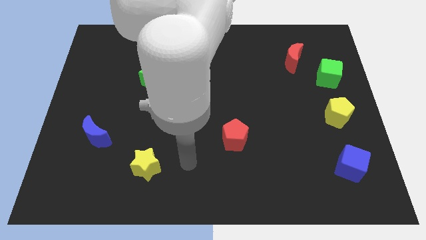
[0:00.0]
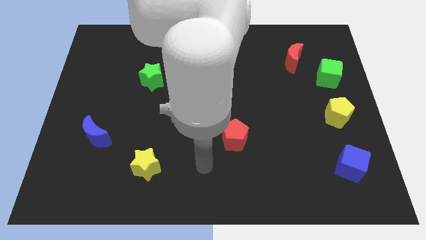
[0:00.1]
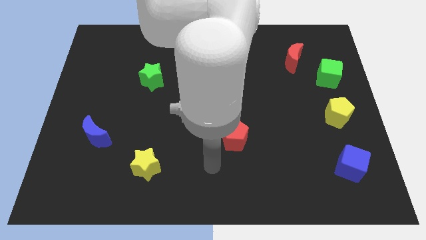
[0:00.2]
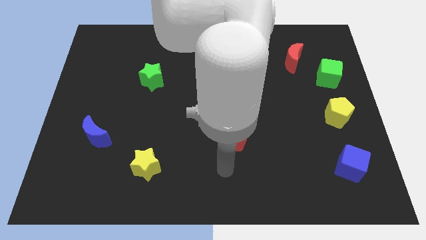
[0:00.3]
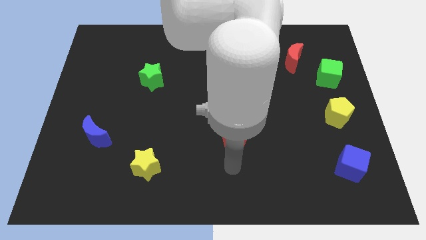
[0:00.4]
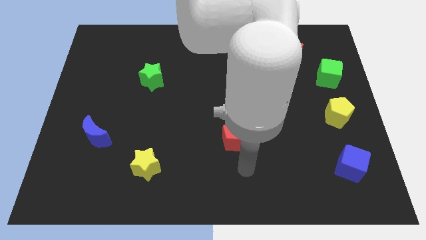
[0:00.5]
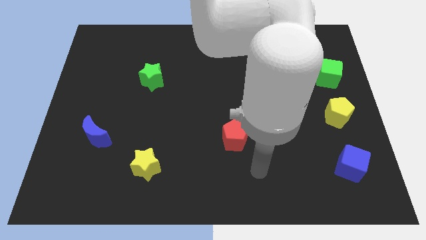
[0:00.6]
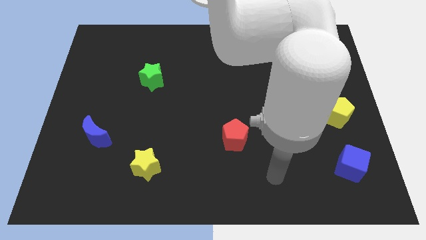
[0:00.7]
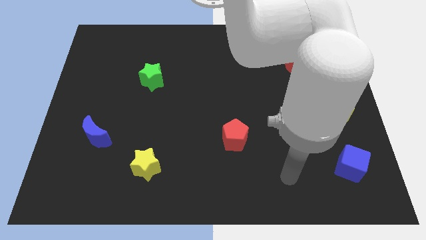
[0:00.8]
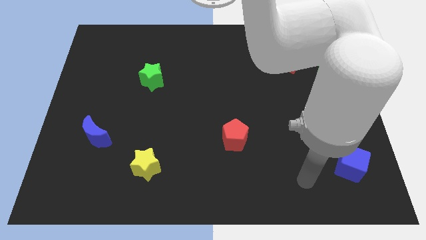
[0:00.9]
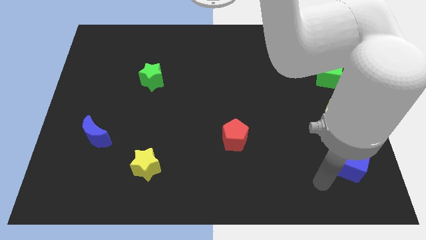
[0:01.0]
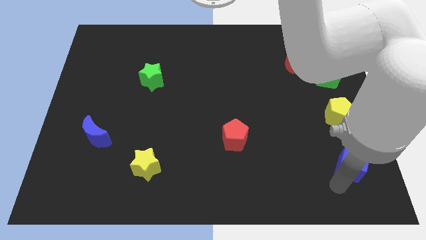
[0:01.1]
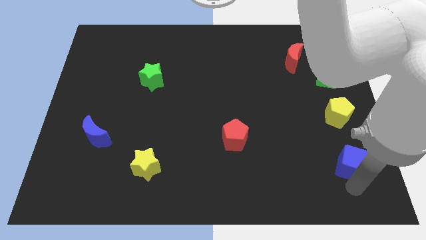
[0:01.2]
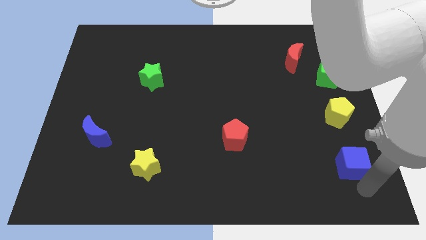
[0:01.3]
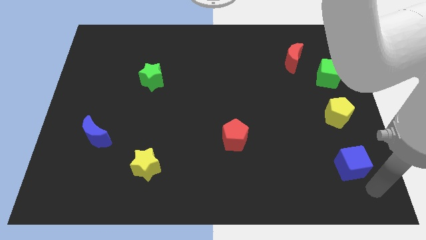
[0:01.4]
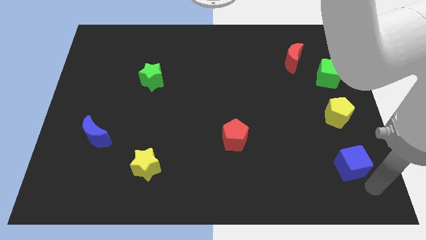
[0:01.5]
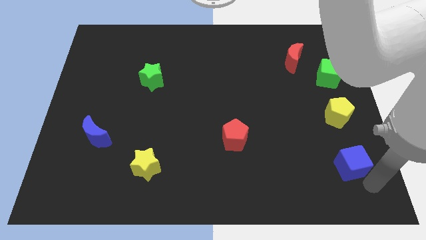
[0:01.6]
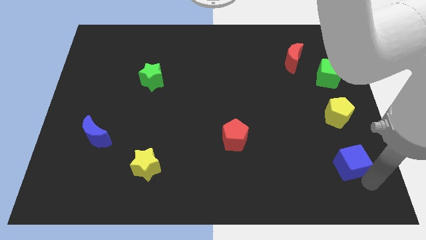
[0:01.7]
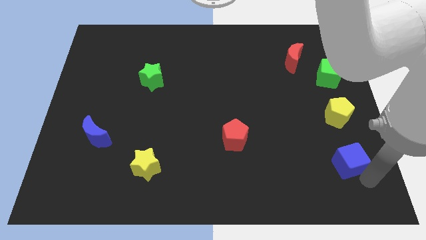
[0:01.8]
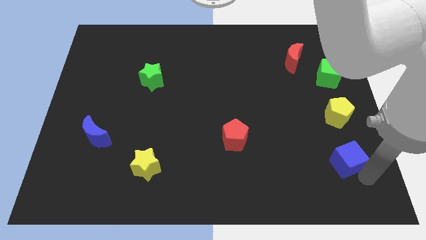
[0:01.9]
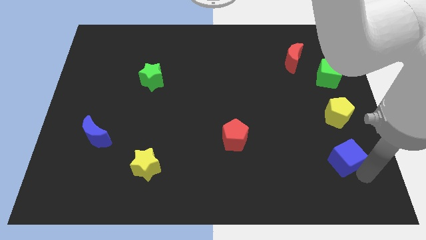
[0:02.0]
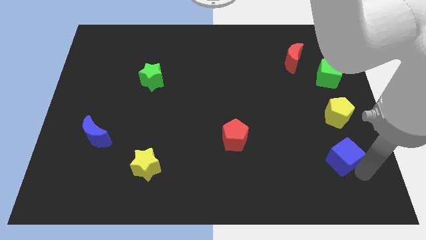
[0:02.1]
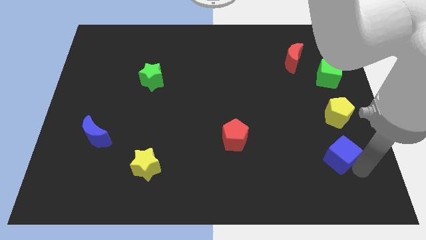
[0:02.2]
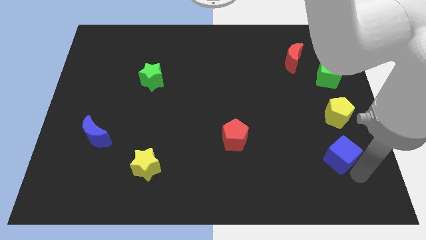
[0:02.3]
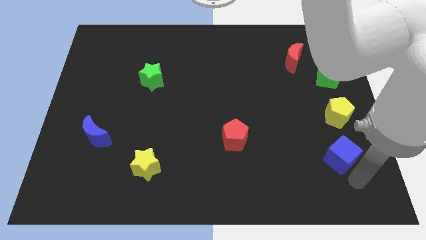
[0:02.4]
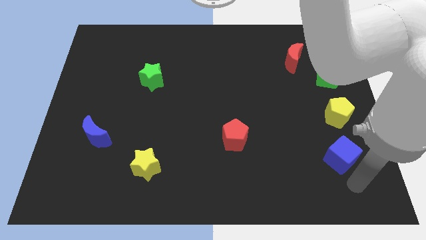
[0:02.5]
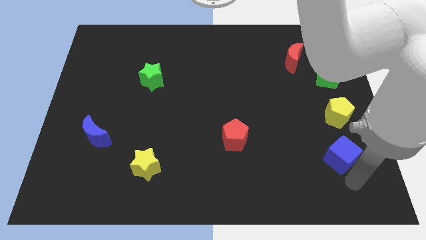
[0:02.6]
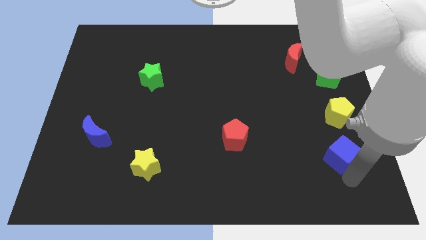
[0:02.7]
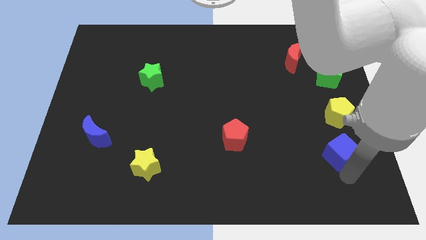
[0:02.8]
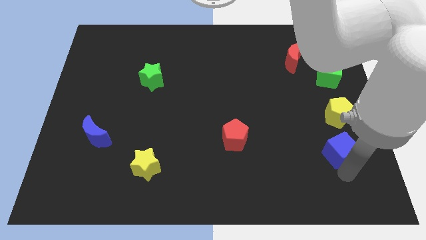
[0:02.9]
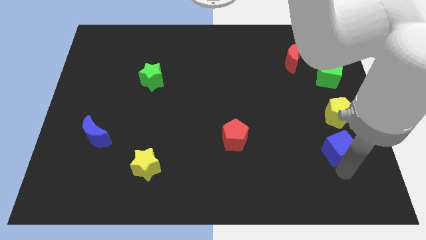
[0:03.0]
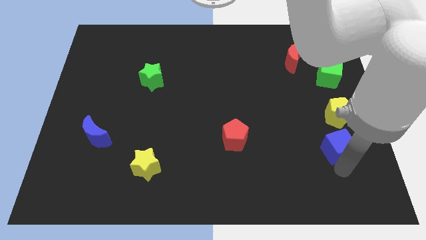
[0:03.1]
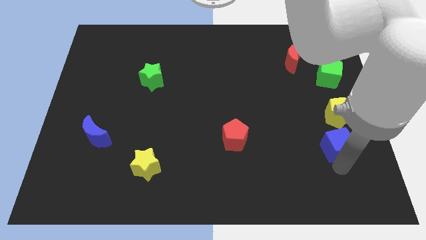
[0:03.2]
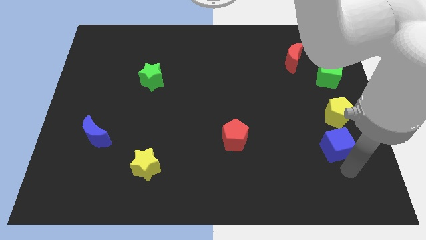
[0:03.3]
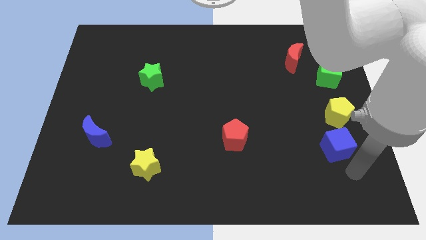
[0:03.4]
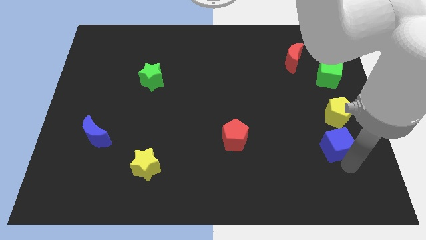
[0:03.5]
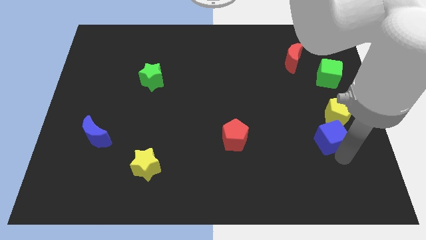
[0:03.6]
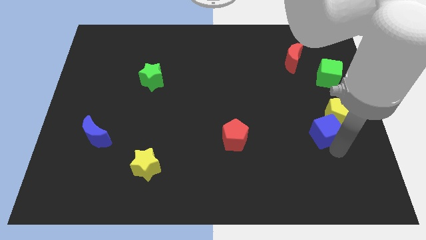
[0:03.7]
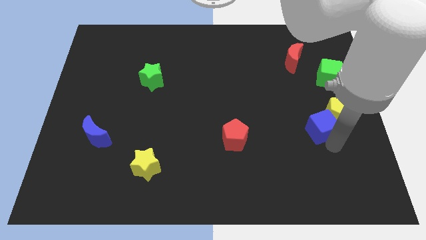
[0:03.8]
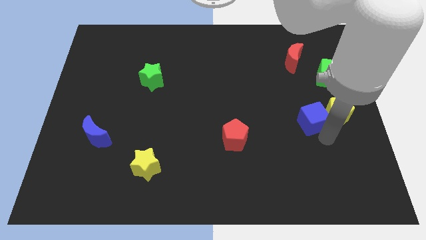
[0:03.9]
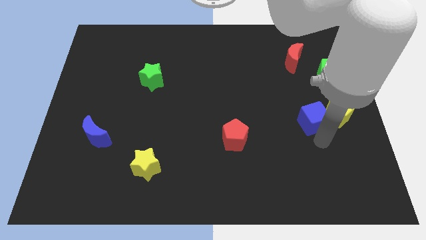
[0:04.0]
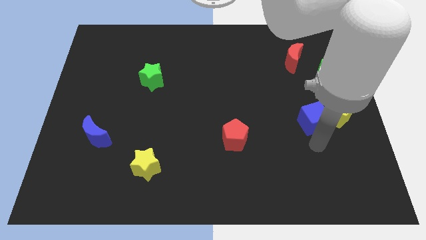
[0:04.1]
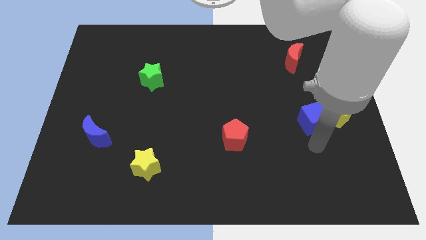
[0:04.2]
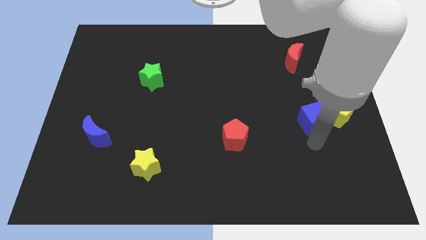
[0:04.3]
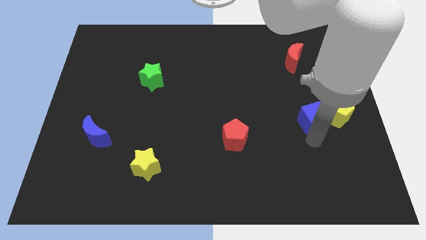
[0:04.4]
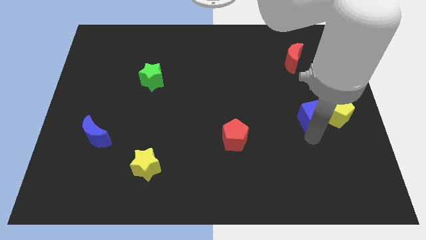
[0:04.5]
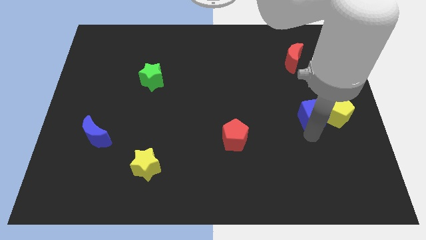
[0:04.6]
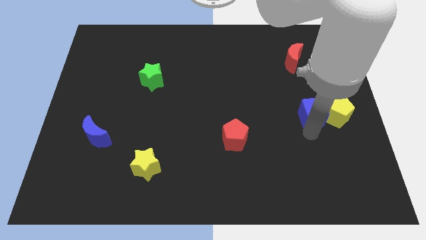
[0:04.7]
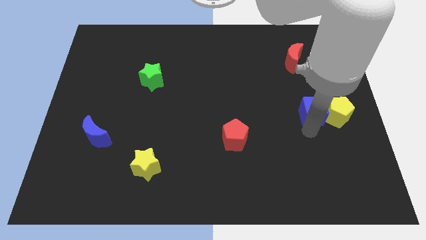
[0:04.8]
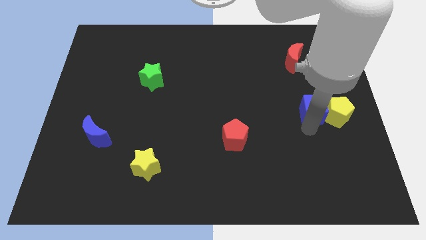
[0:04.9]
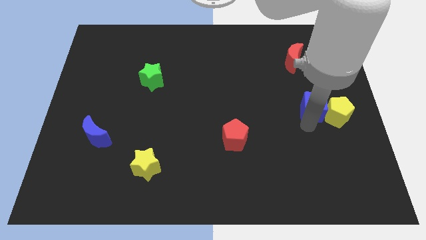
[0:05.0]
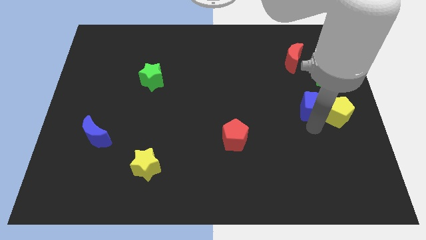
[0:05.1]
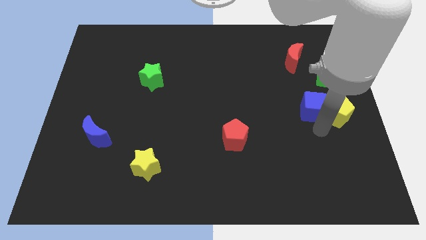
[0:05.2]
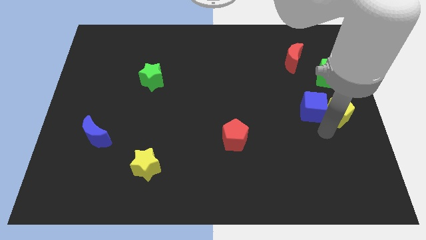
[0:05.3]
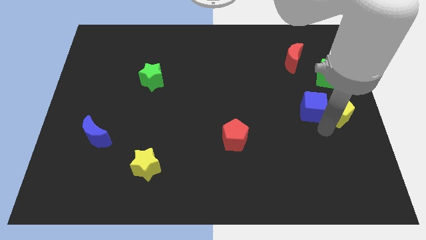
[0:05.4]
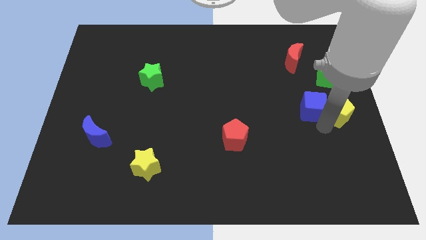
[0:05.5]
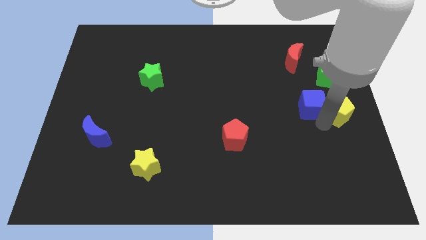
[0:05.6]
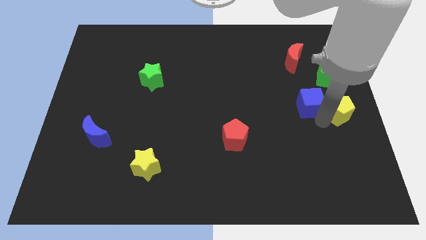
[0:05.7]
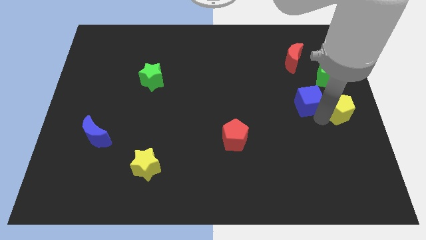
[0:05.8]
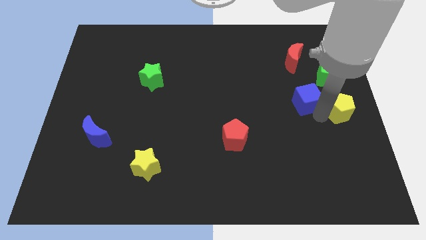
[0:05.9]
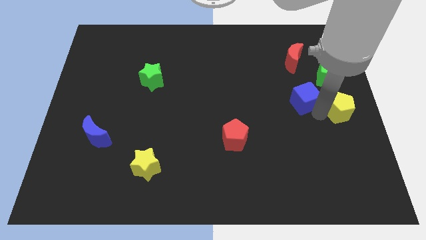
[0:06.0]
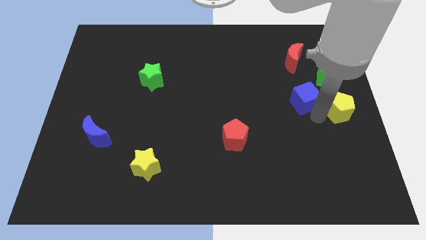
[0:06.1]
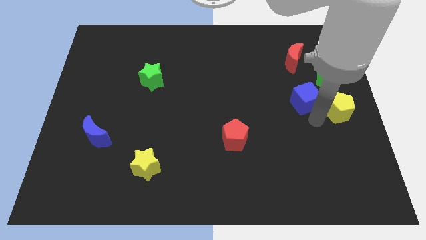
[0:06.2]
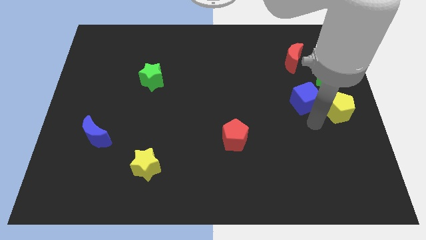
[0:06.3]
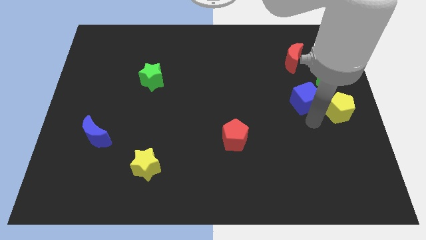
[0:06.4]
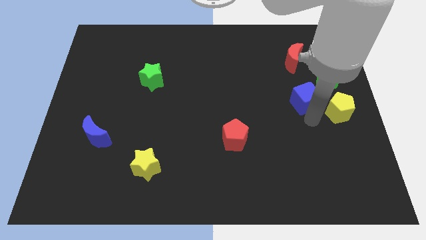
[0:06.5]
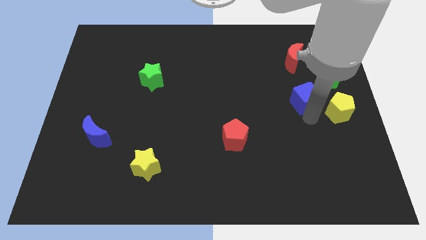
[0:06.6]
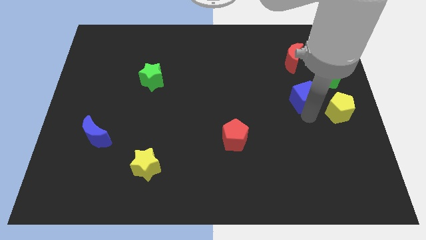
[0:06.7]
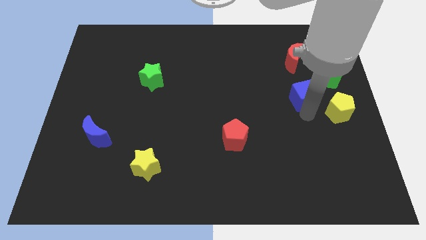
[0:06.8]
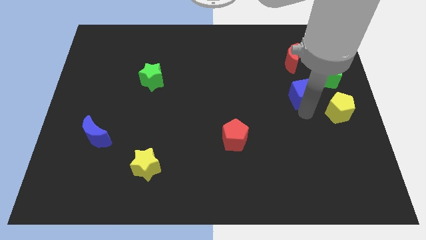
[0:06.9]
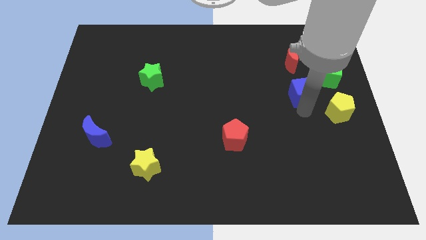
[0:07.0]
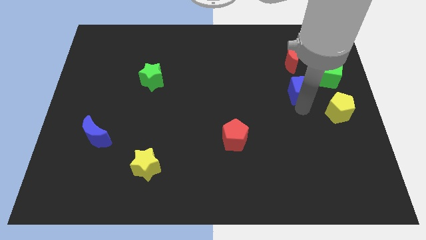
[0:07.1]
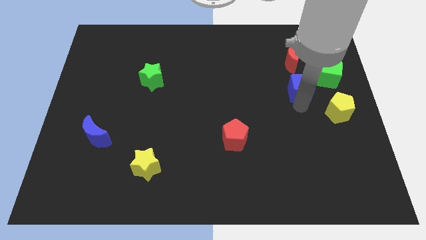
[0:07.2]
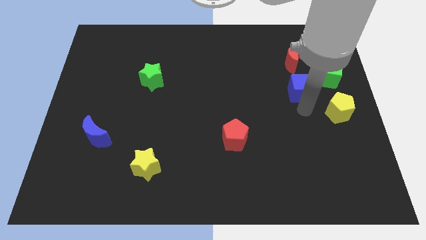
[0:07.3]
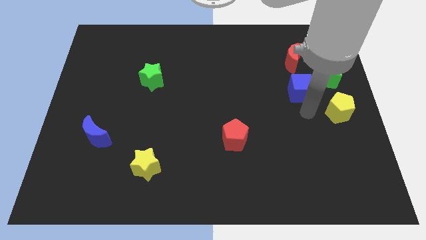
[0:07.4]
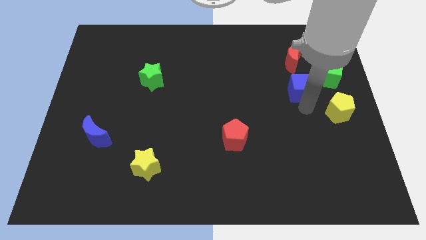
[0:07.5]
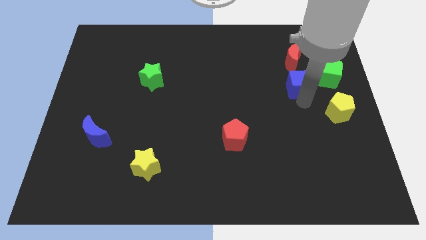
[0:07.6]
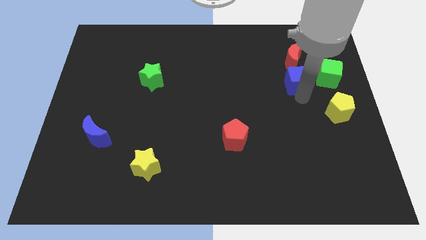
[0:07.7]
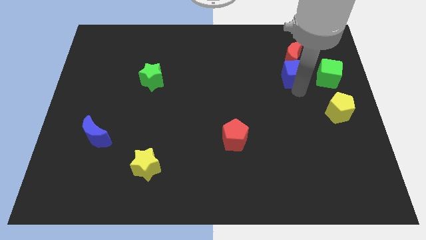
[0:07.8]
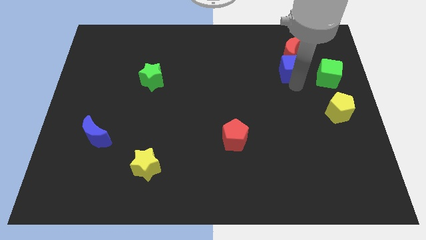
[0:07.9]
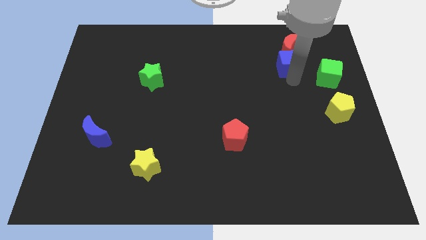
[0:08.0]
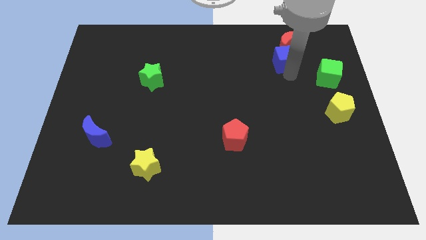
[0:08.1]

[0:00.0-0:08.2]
put the blue cube close to the red moon
